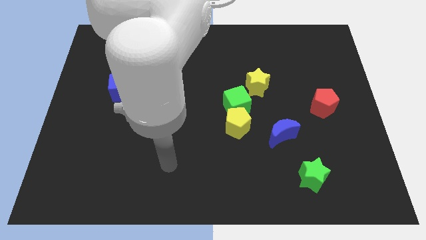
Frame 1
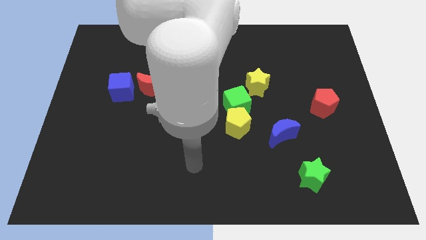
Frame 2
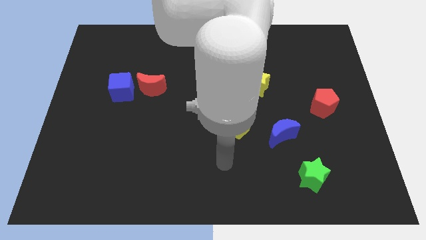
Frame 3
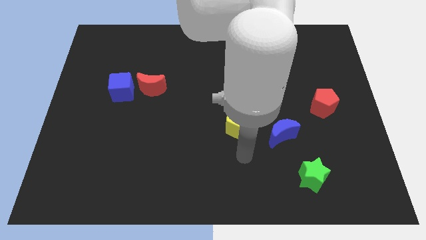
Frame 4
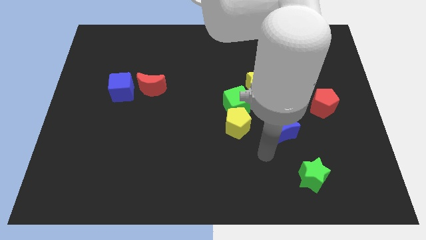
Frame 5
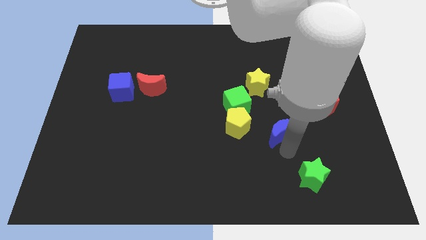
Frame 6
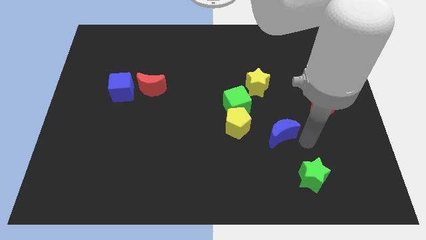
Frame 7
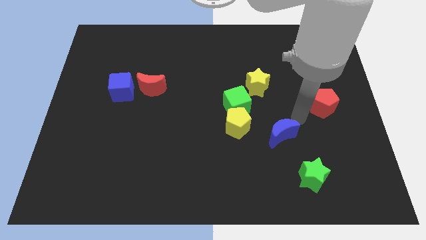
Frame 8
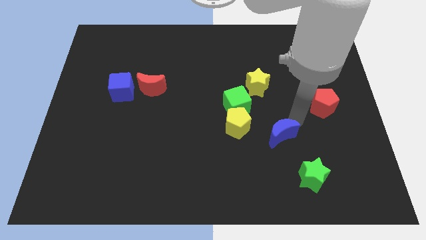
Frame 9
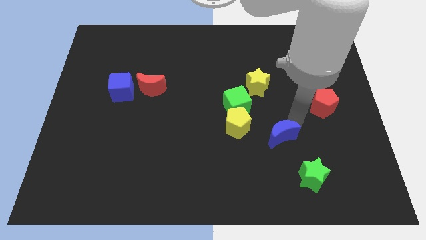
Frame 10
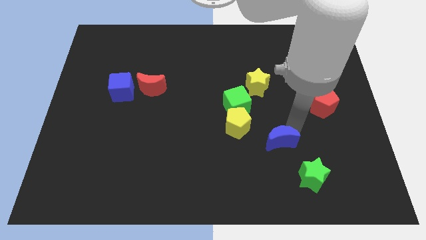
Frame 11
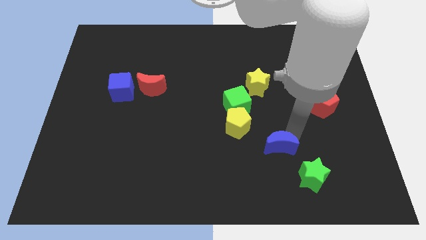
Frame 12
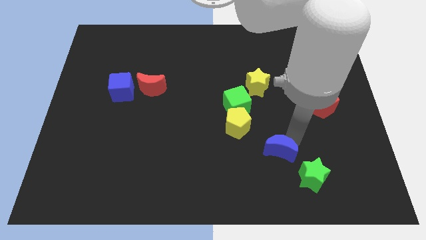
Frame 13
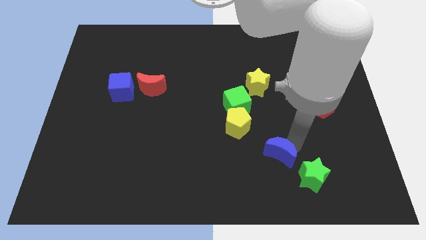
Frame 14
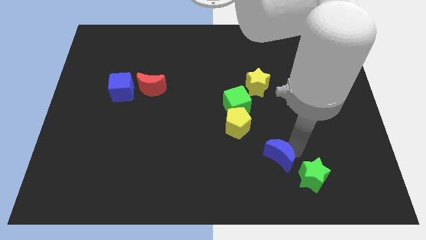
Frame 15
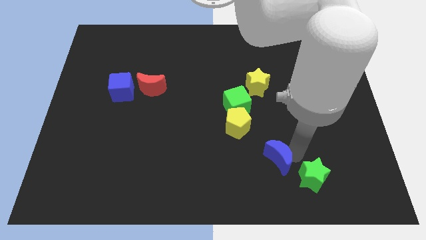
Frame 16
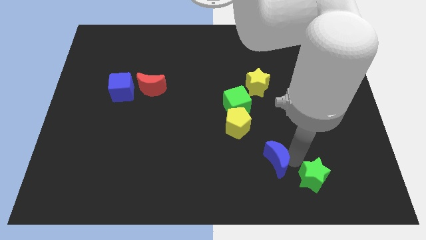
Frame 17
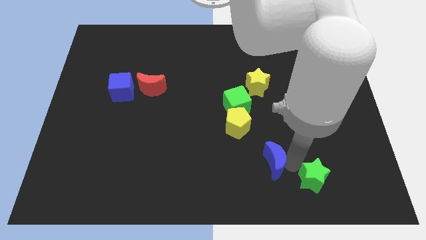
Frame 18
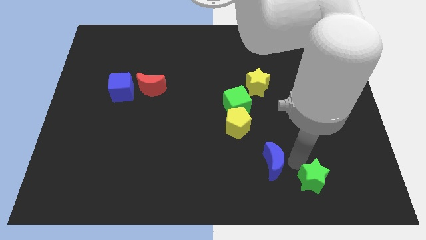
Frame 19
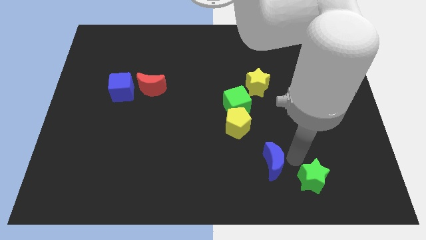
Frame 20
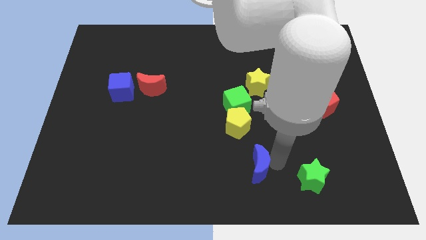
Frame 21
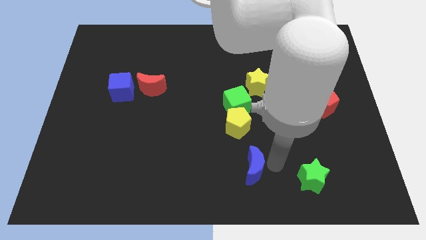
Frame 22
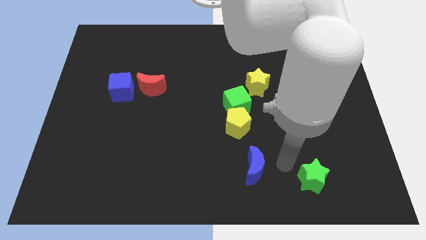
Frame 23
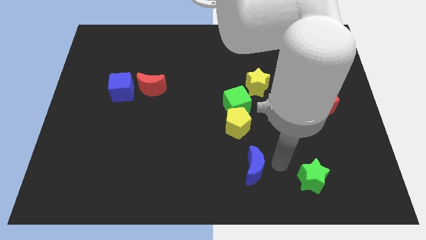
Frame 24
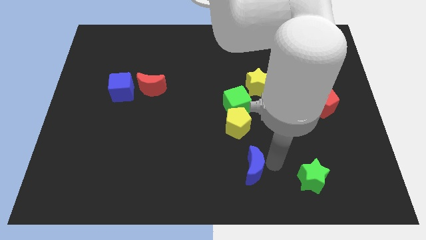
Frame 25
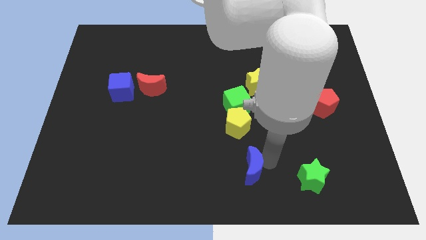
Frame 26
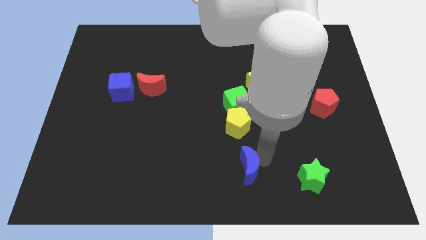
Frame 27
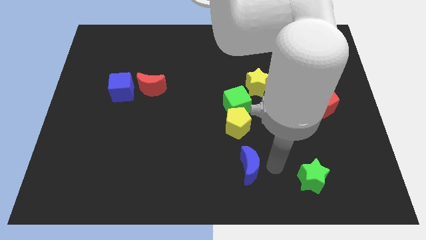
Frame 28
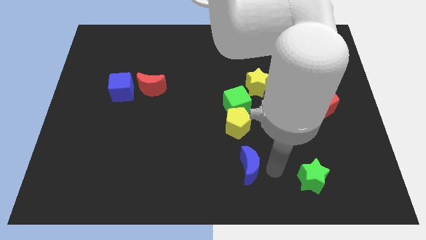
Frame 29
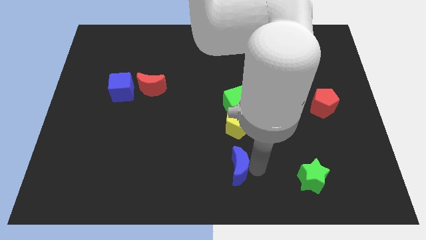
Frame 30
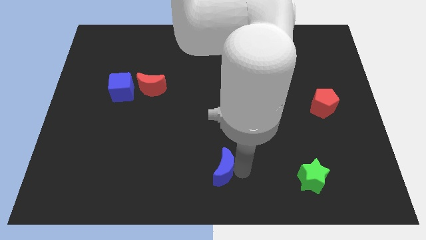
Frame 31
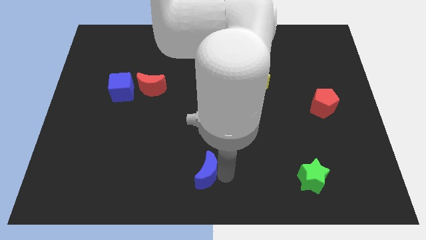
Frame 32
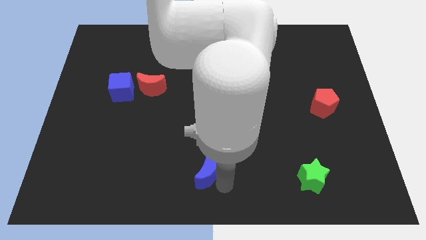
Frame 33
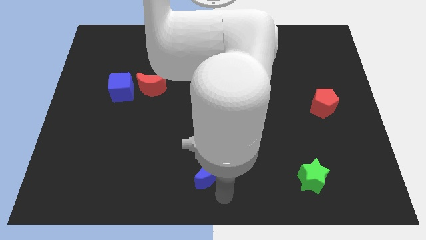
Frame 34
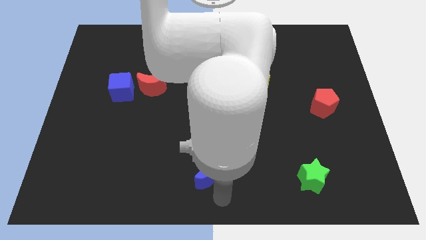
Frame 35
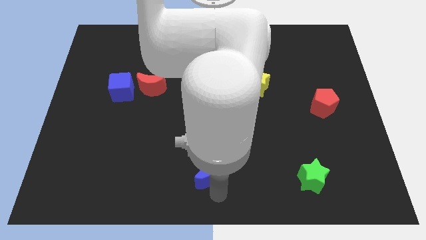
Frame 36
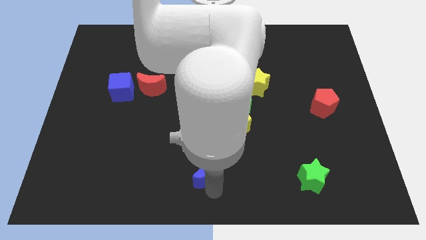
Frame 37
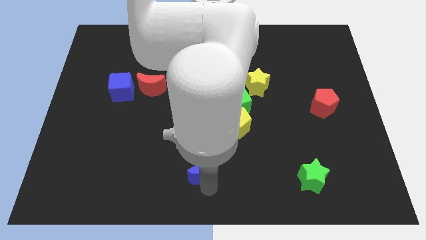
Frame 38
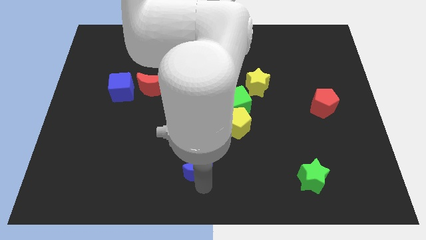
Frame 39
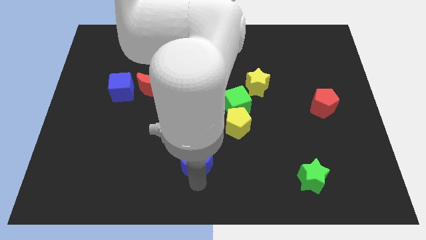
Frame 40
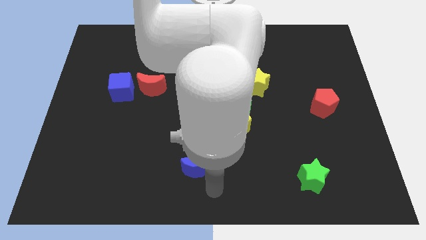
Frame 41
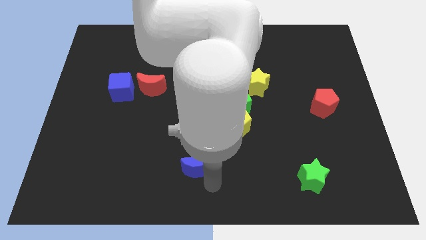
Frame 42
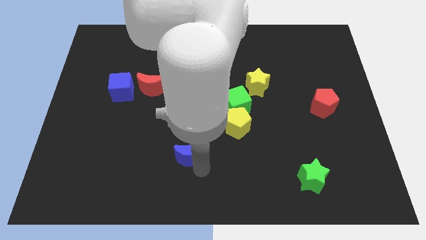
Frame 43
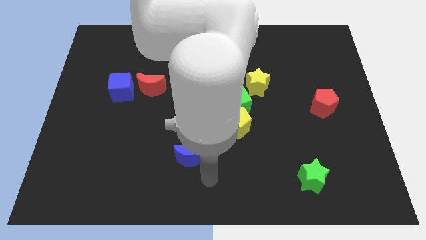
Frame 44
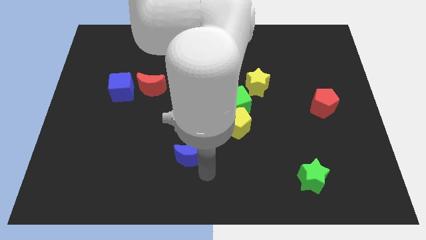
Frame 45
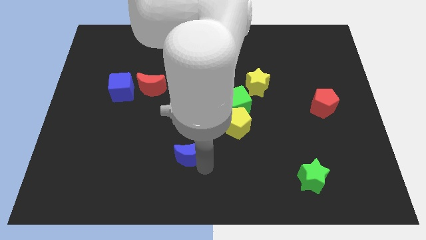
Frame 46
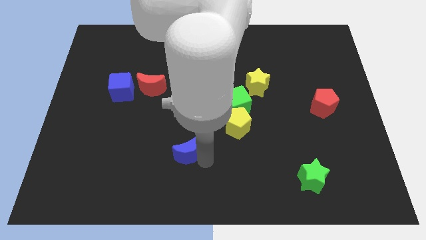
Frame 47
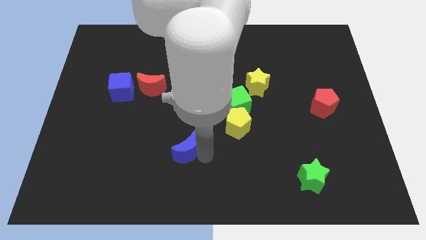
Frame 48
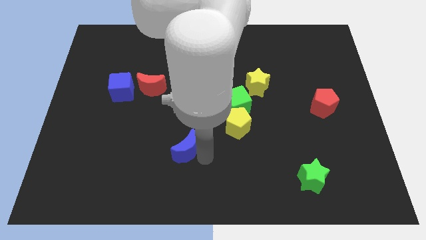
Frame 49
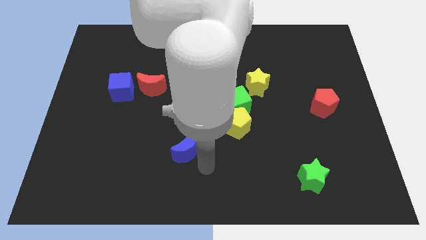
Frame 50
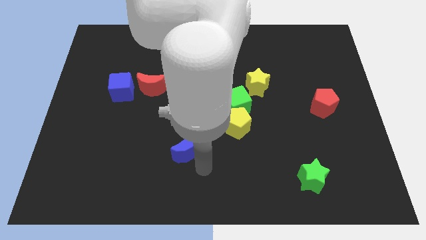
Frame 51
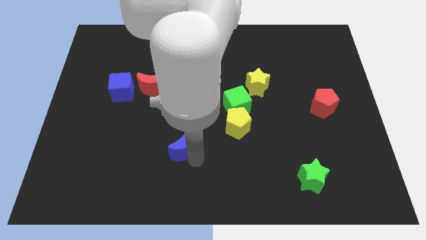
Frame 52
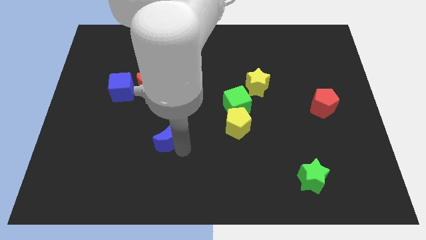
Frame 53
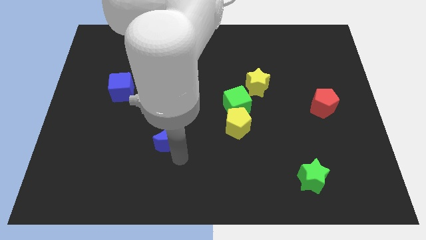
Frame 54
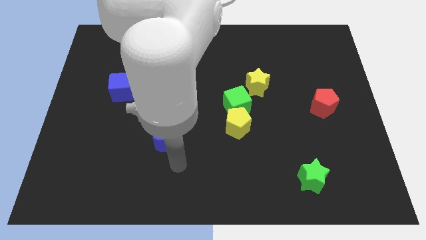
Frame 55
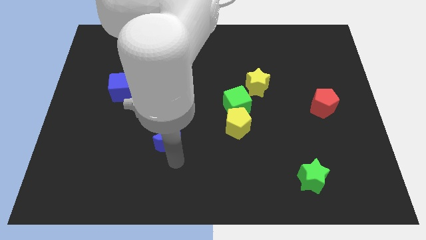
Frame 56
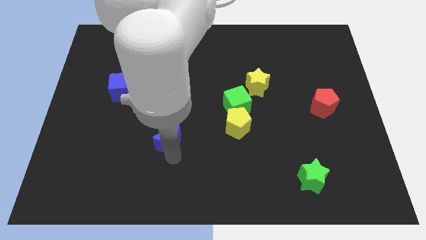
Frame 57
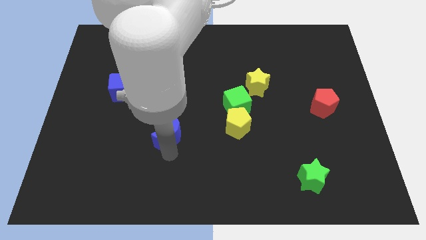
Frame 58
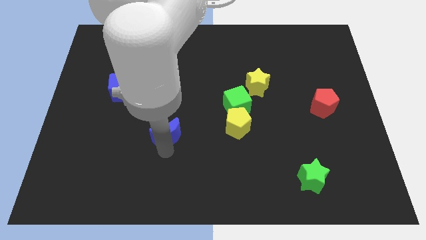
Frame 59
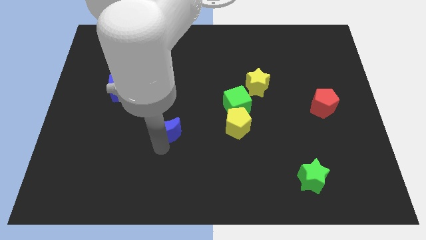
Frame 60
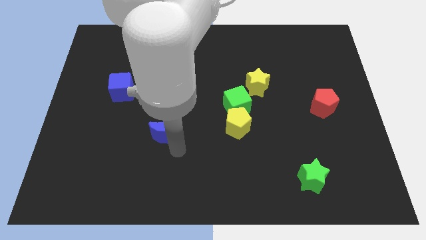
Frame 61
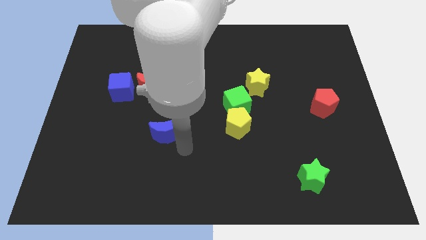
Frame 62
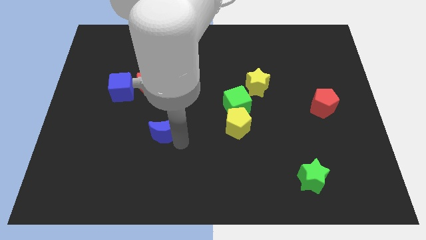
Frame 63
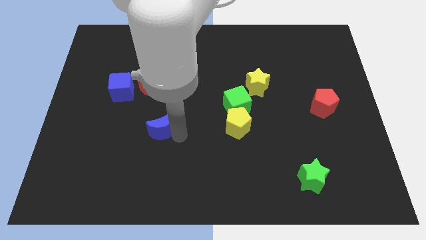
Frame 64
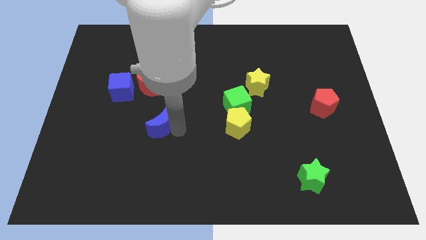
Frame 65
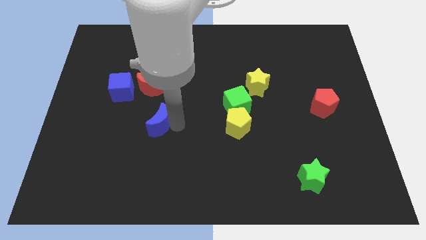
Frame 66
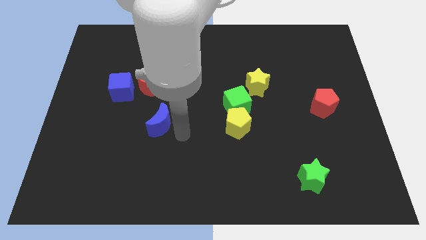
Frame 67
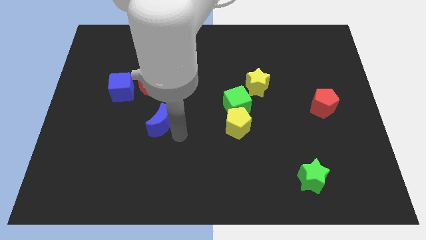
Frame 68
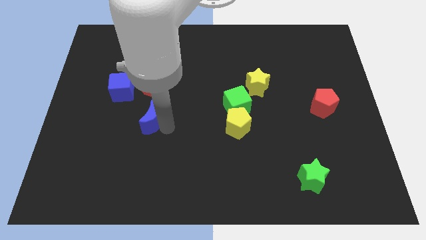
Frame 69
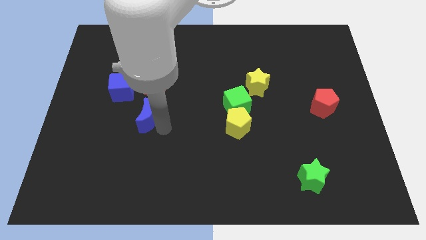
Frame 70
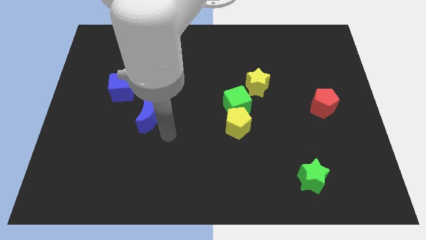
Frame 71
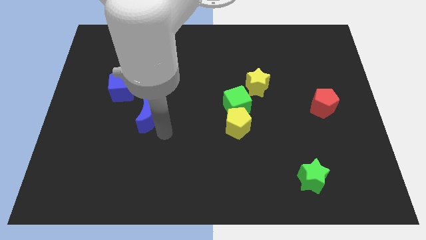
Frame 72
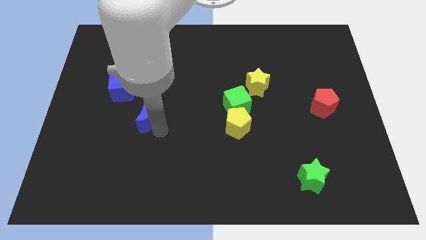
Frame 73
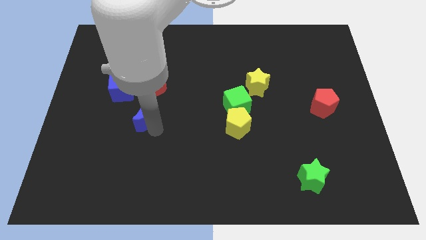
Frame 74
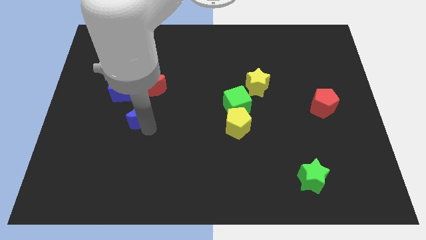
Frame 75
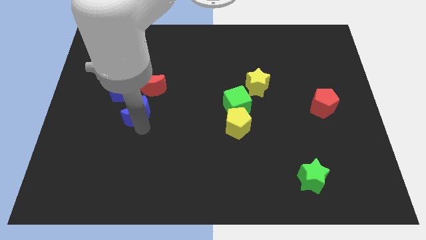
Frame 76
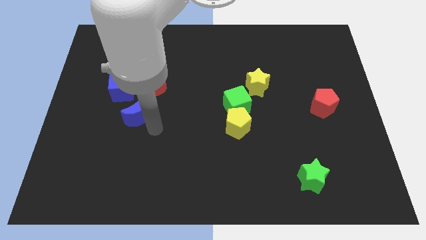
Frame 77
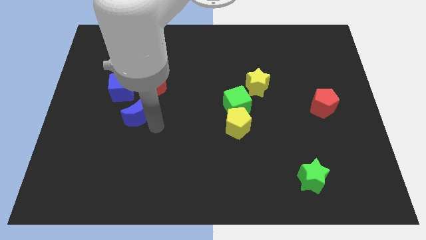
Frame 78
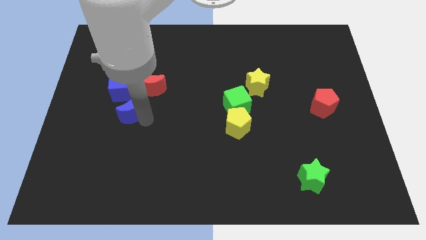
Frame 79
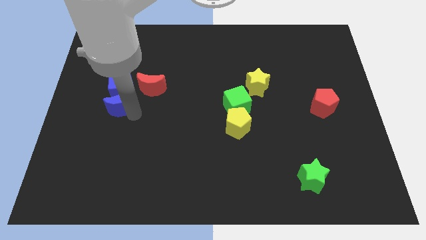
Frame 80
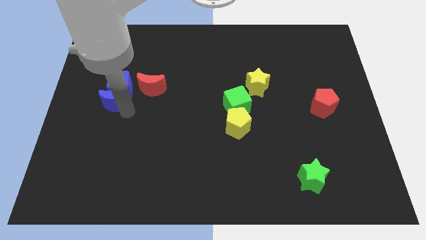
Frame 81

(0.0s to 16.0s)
put the blue moon left of the red moon
